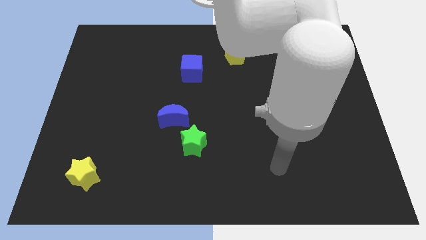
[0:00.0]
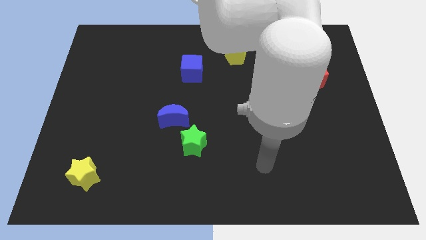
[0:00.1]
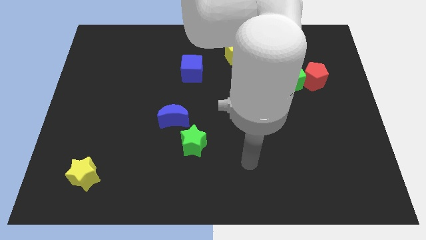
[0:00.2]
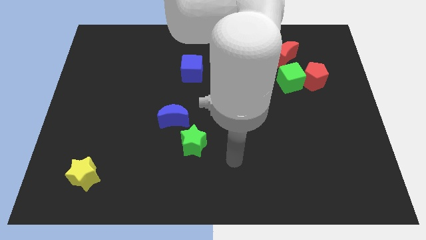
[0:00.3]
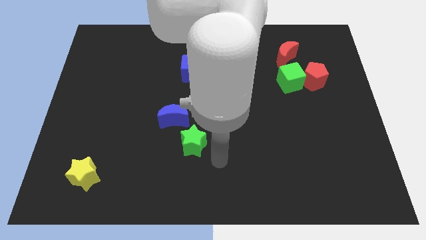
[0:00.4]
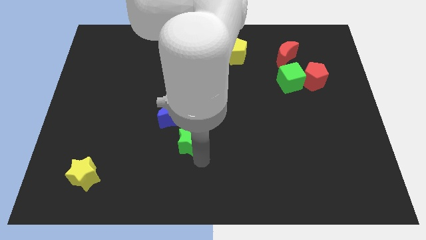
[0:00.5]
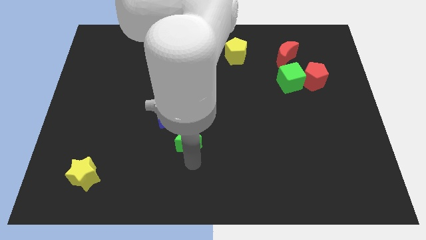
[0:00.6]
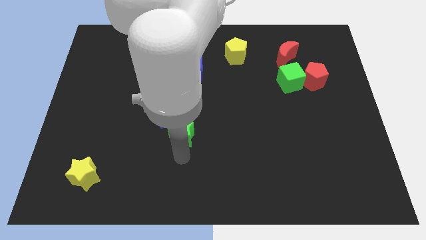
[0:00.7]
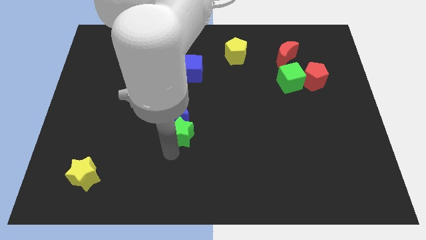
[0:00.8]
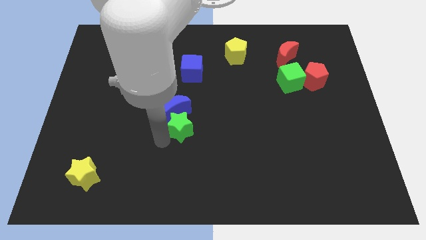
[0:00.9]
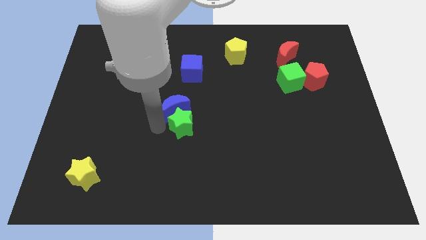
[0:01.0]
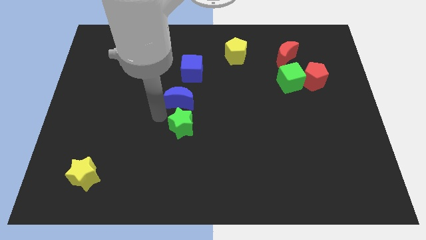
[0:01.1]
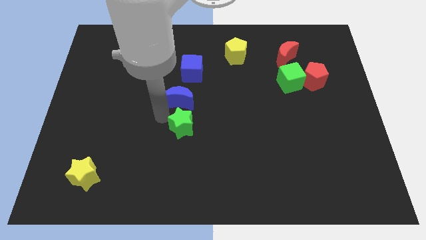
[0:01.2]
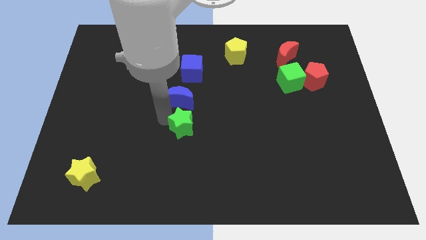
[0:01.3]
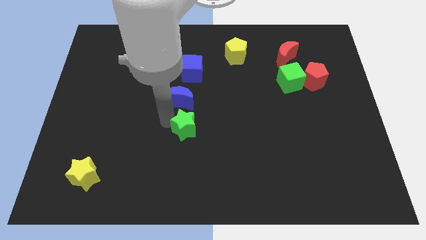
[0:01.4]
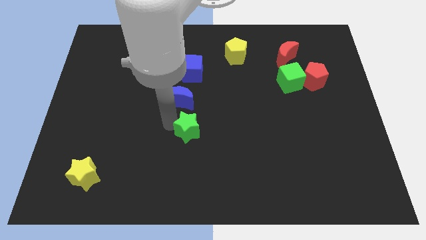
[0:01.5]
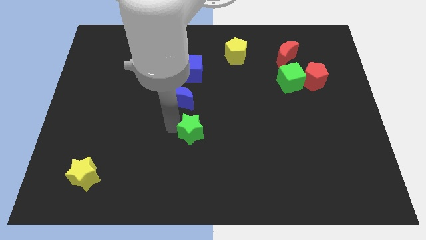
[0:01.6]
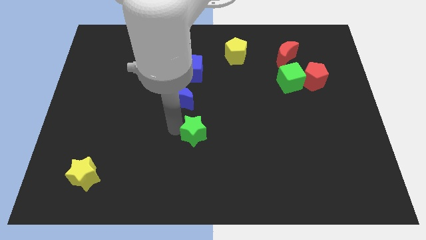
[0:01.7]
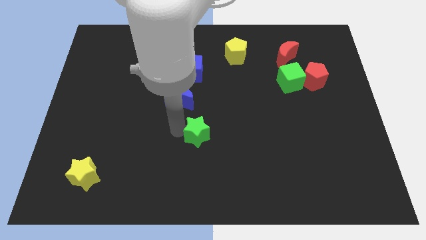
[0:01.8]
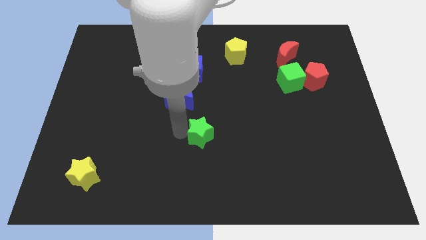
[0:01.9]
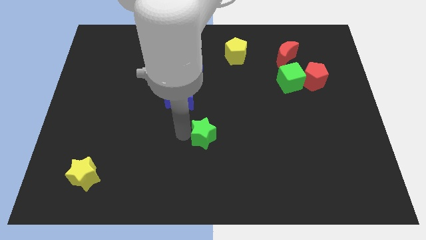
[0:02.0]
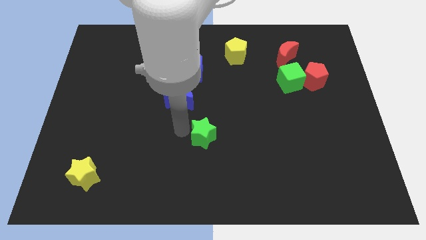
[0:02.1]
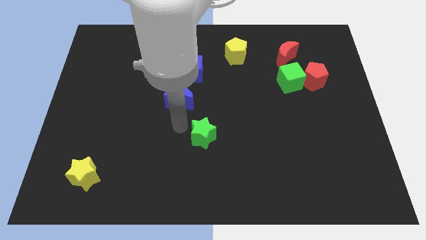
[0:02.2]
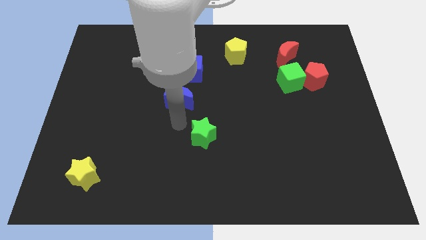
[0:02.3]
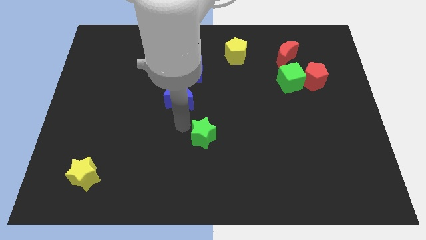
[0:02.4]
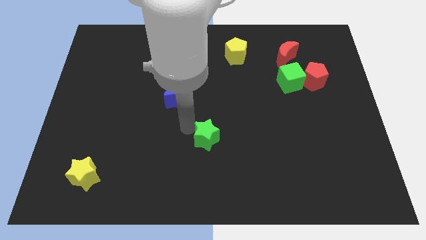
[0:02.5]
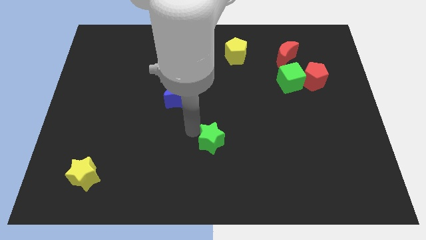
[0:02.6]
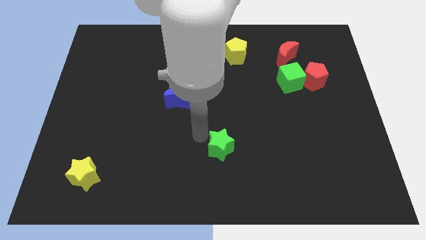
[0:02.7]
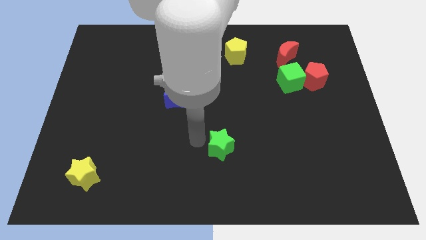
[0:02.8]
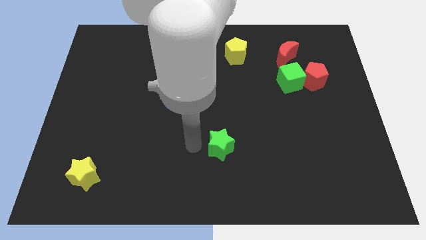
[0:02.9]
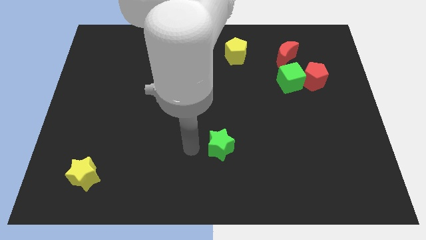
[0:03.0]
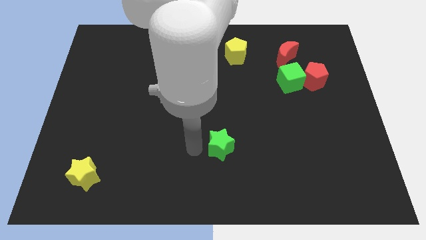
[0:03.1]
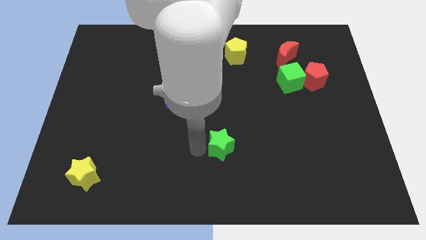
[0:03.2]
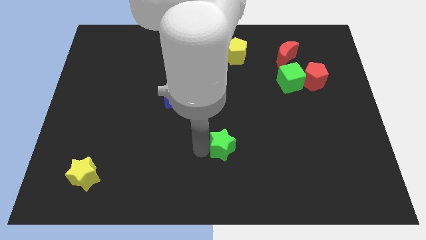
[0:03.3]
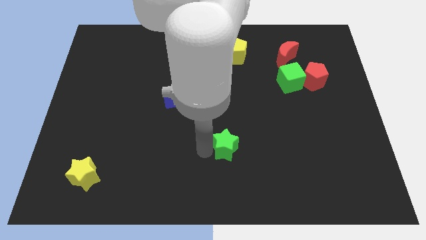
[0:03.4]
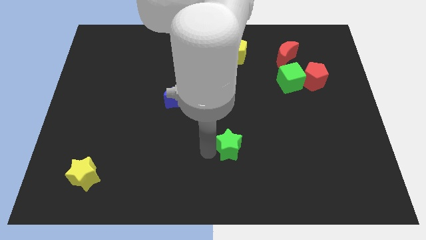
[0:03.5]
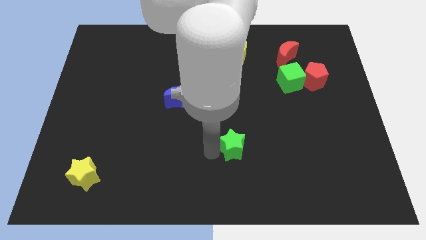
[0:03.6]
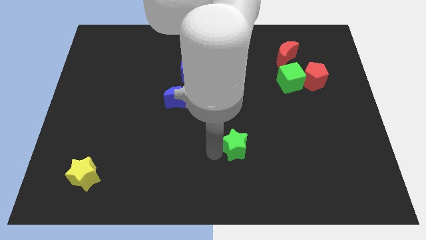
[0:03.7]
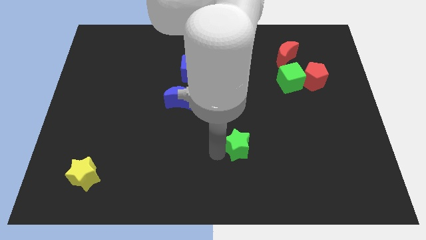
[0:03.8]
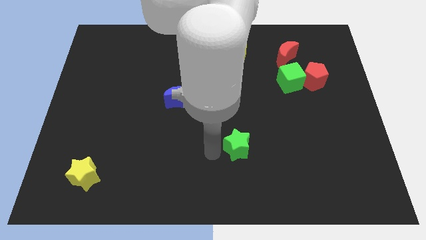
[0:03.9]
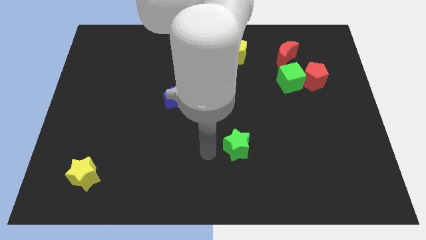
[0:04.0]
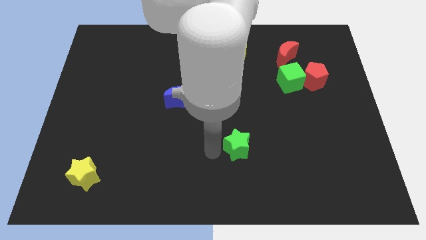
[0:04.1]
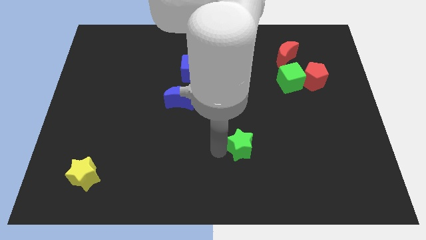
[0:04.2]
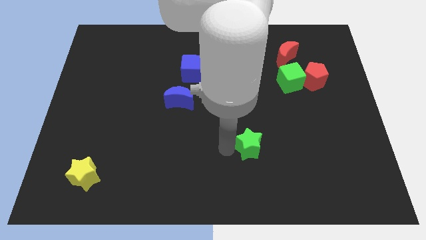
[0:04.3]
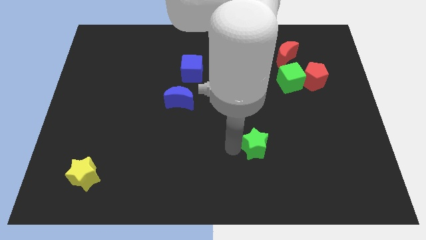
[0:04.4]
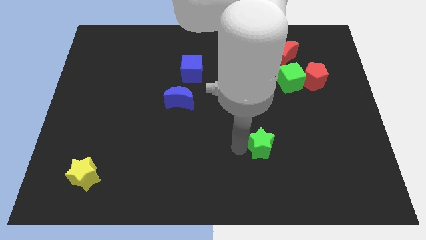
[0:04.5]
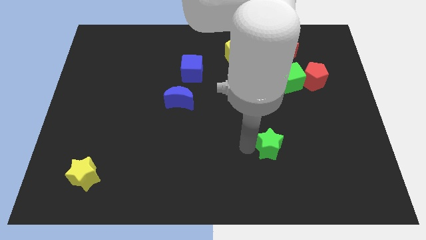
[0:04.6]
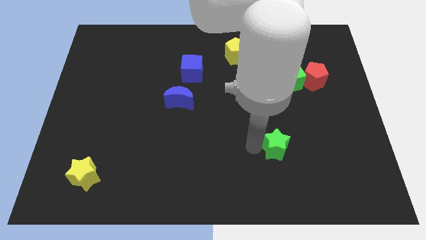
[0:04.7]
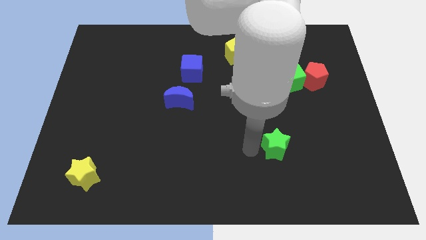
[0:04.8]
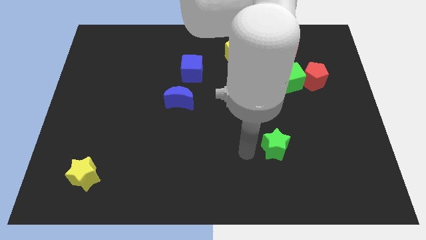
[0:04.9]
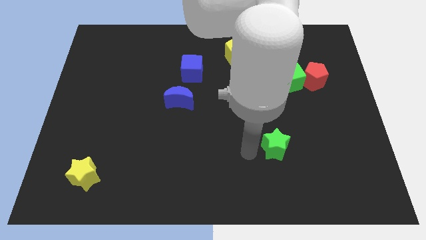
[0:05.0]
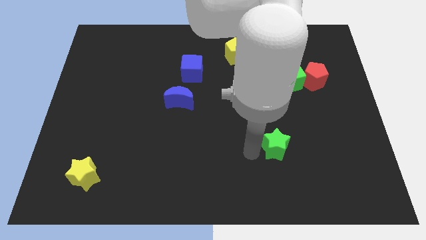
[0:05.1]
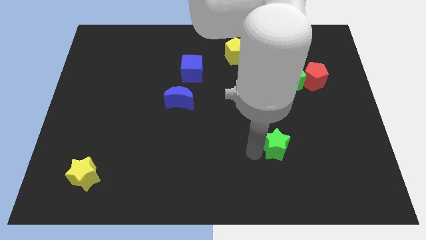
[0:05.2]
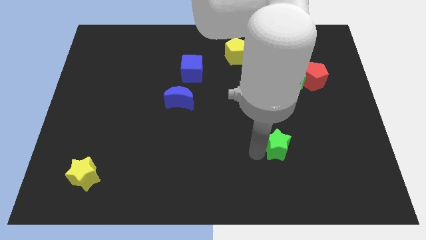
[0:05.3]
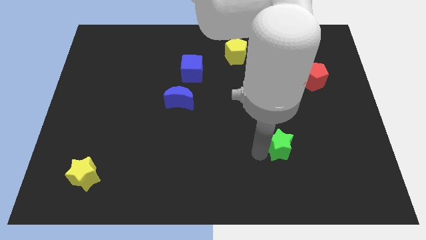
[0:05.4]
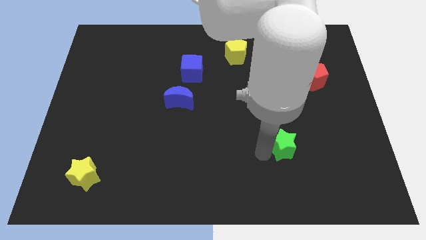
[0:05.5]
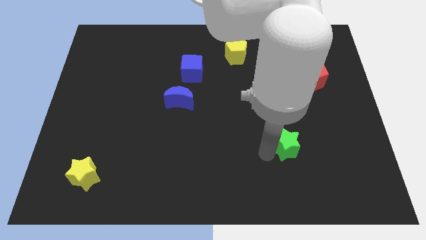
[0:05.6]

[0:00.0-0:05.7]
push the green star to the right

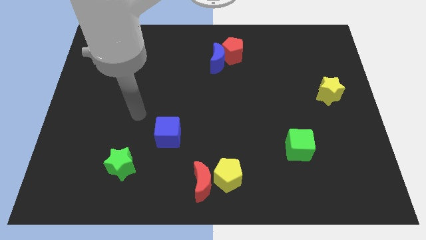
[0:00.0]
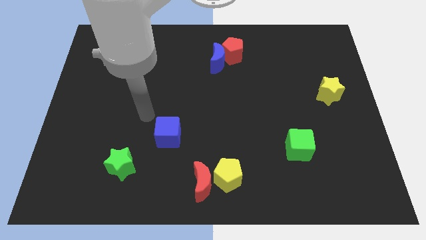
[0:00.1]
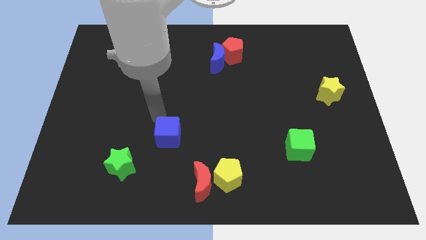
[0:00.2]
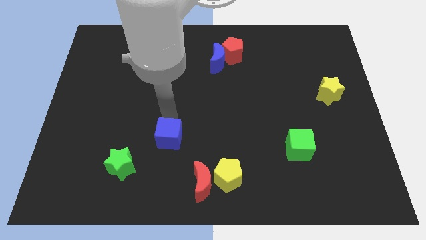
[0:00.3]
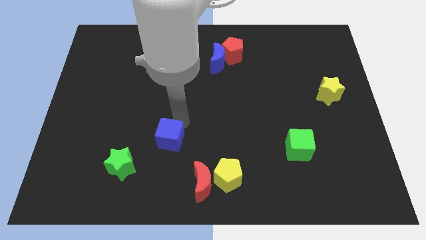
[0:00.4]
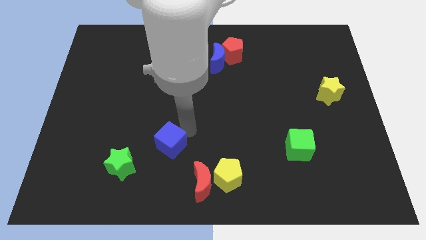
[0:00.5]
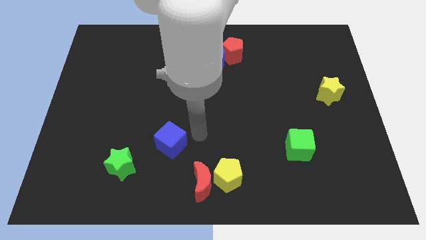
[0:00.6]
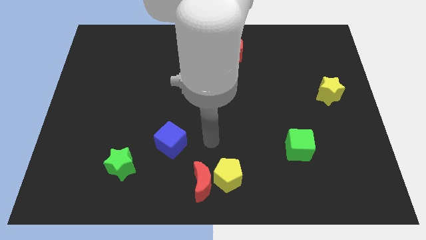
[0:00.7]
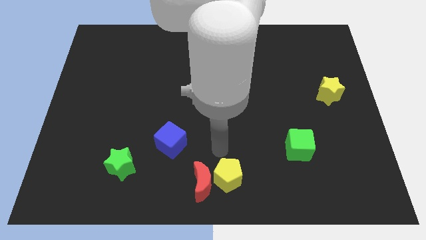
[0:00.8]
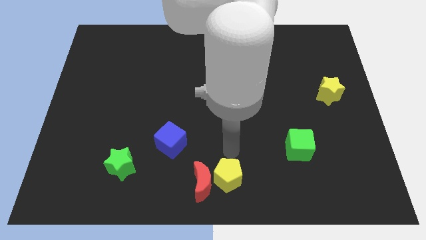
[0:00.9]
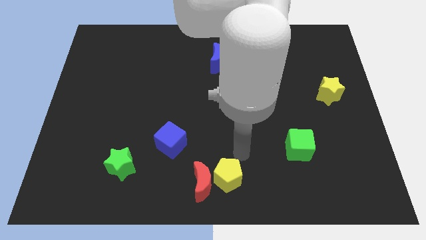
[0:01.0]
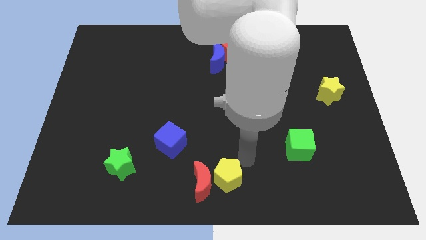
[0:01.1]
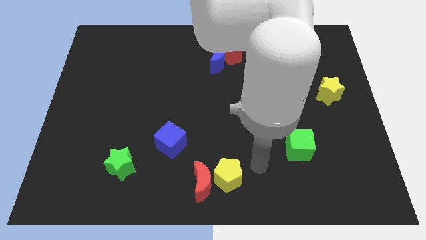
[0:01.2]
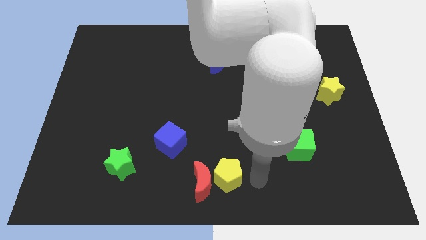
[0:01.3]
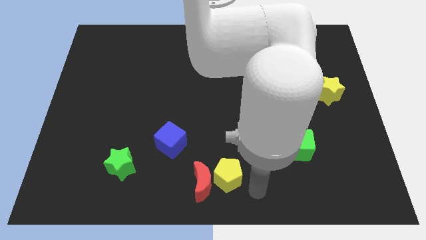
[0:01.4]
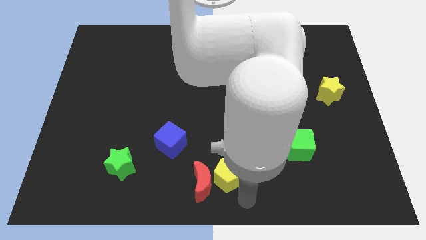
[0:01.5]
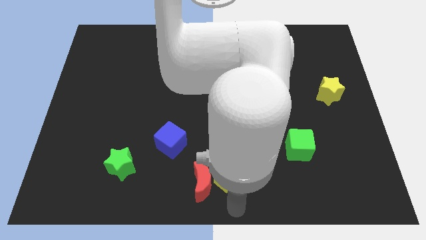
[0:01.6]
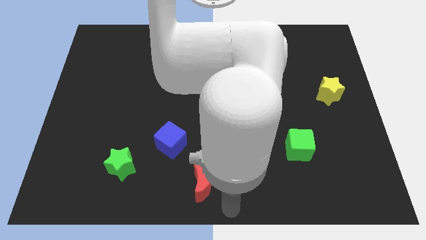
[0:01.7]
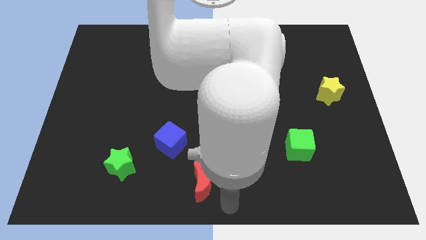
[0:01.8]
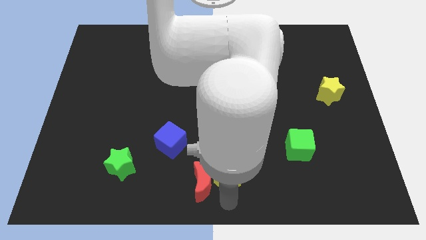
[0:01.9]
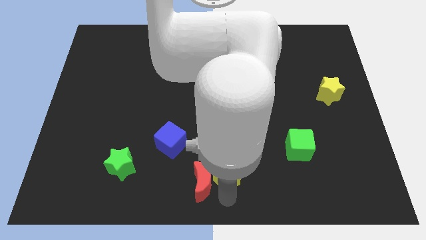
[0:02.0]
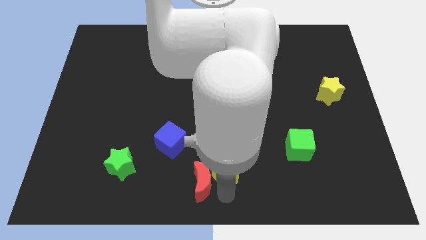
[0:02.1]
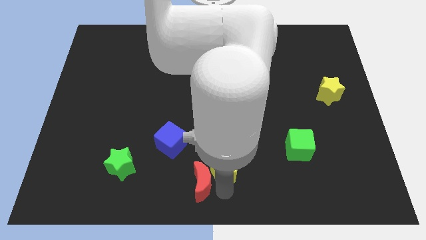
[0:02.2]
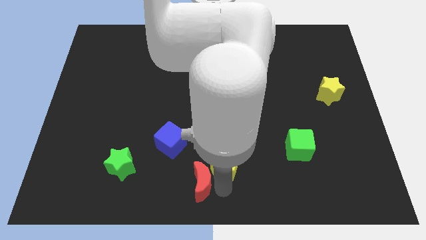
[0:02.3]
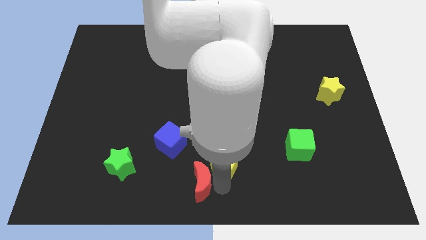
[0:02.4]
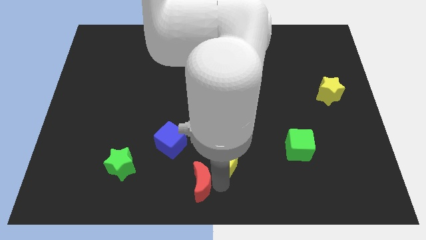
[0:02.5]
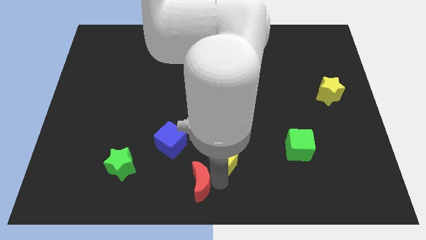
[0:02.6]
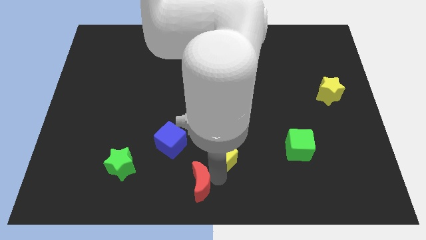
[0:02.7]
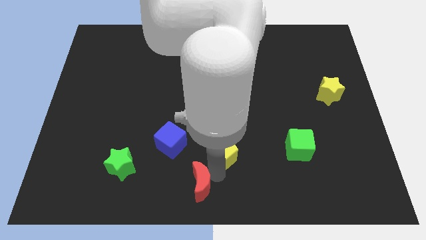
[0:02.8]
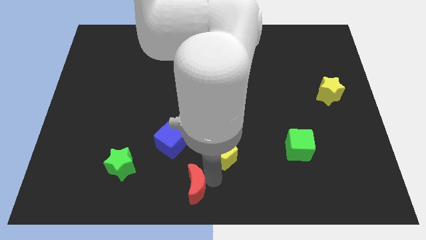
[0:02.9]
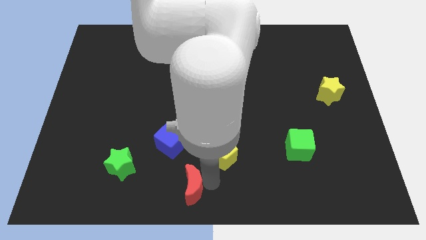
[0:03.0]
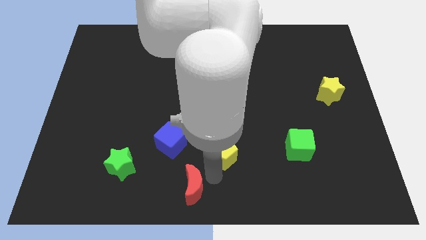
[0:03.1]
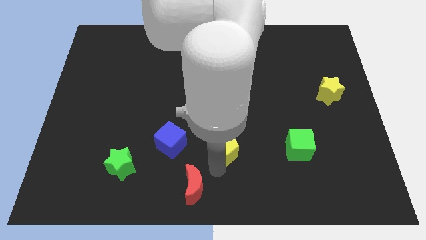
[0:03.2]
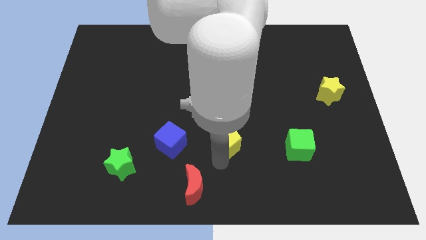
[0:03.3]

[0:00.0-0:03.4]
slightly move the yellow pentagon upwards
